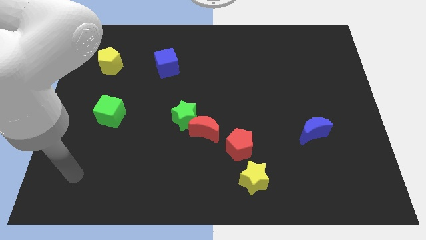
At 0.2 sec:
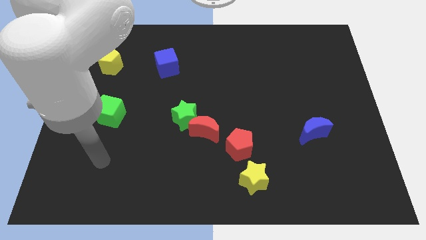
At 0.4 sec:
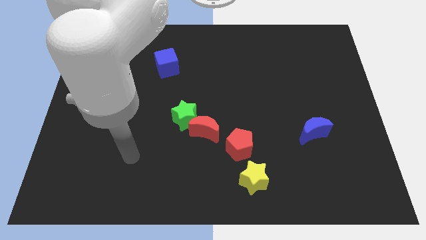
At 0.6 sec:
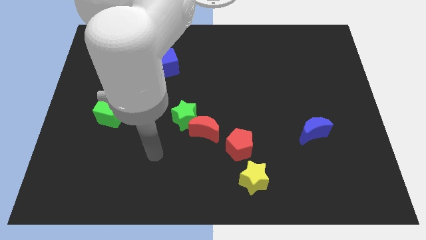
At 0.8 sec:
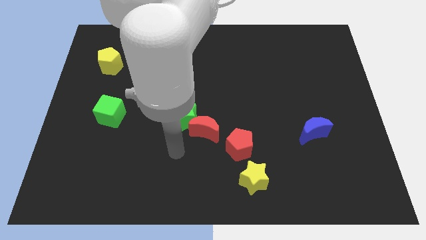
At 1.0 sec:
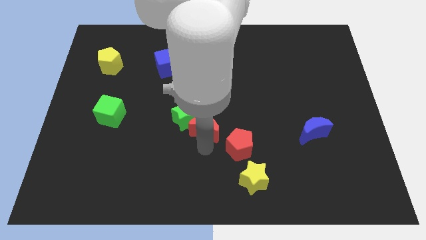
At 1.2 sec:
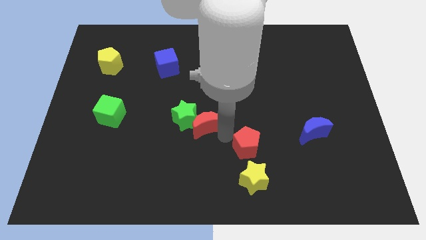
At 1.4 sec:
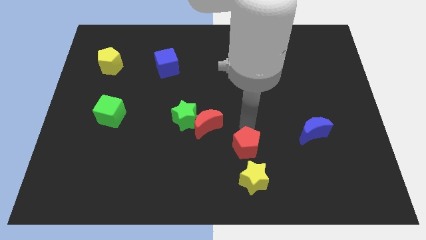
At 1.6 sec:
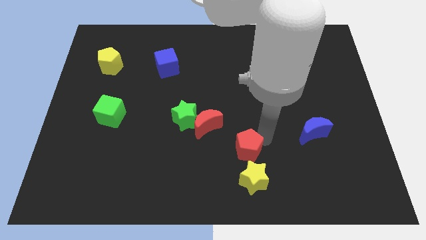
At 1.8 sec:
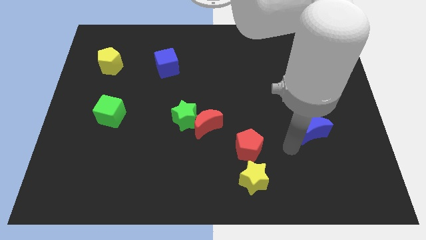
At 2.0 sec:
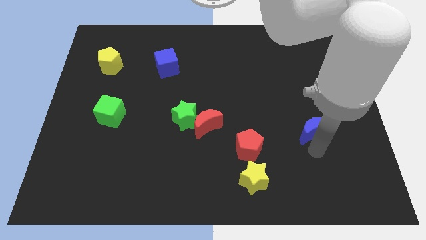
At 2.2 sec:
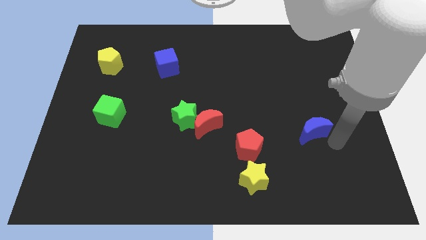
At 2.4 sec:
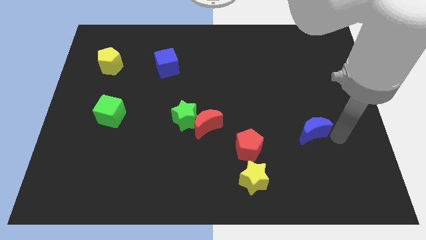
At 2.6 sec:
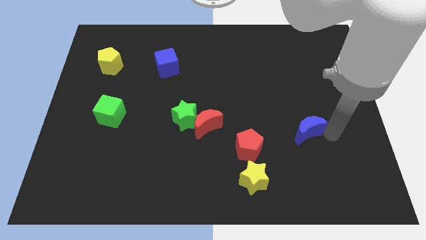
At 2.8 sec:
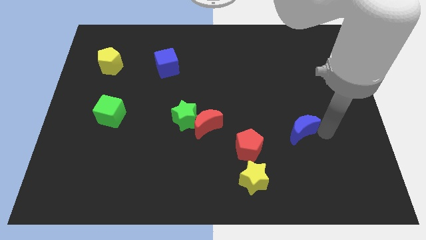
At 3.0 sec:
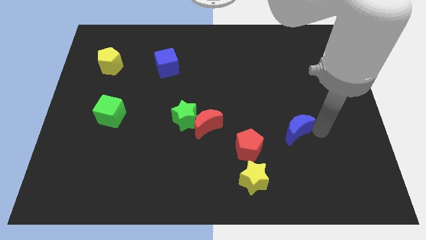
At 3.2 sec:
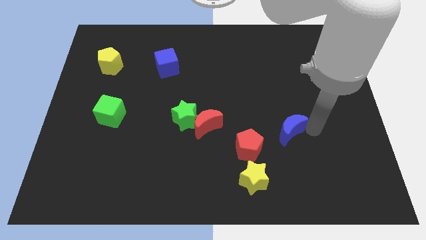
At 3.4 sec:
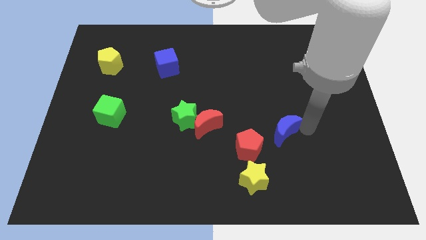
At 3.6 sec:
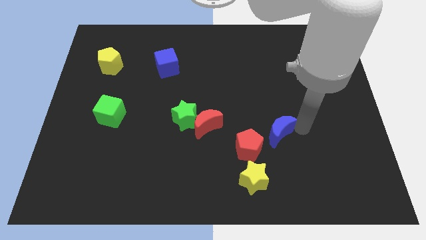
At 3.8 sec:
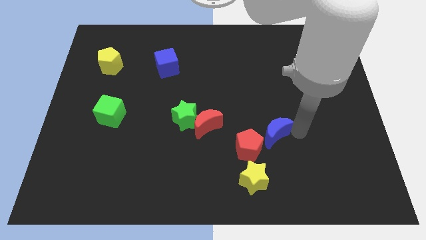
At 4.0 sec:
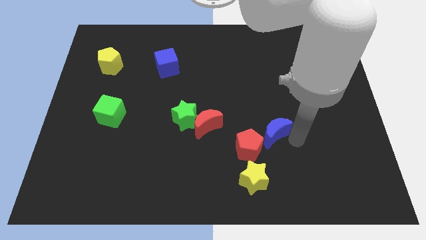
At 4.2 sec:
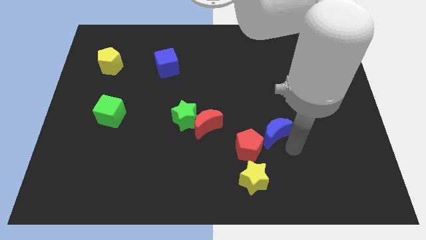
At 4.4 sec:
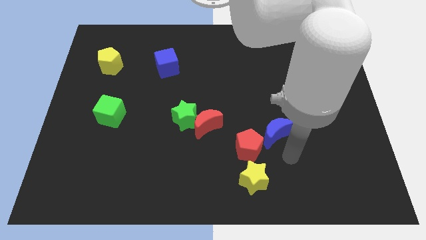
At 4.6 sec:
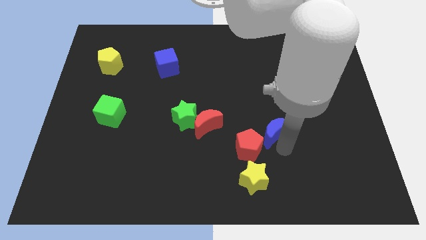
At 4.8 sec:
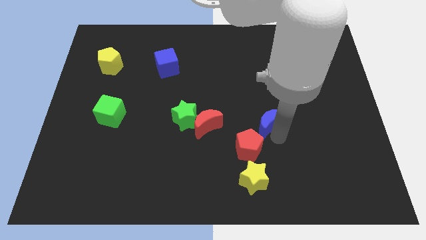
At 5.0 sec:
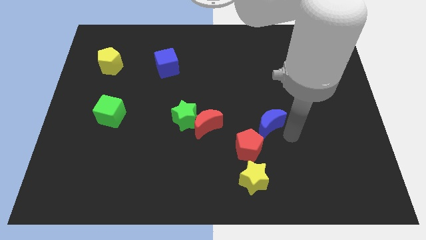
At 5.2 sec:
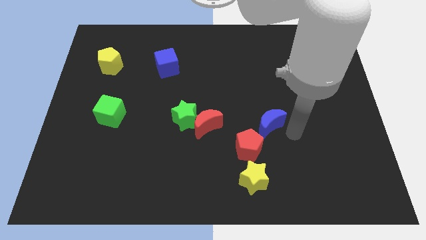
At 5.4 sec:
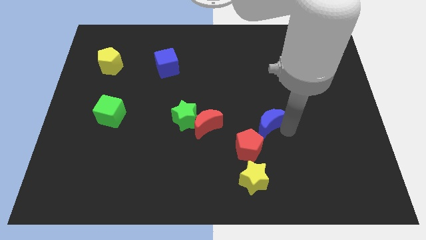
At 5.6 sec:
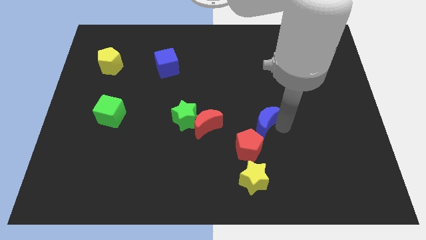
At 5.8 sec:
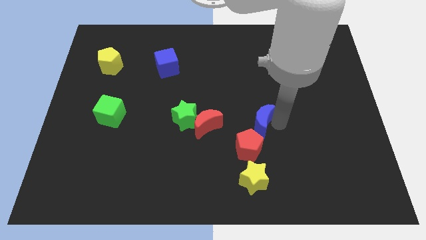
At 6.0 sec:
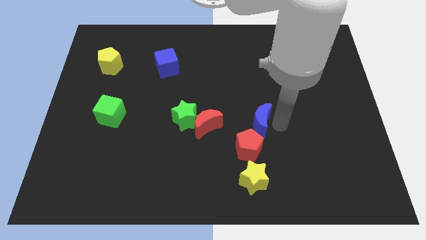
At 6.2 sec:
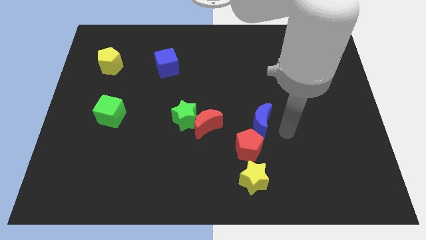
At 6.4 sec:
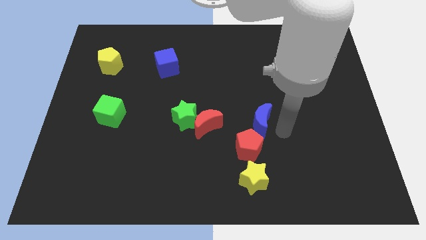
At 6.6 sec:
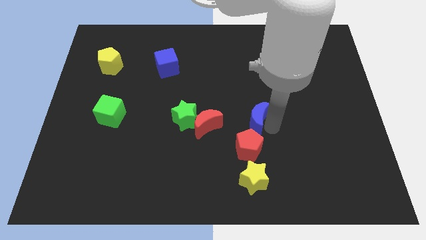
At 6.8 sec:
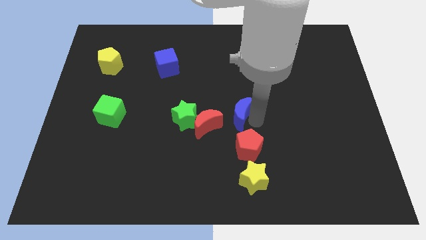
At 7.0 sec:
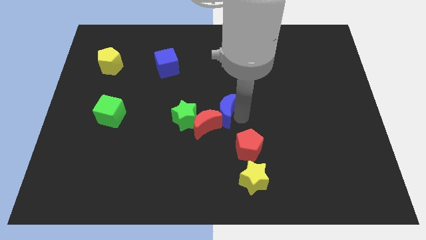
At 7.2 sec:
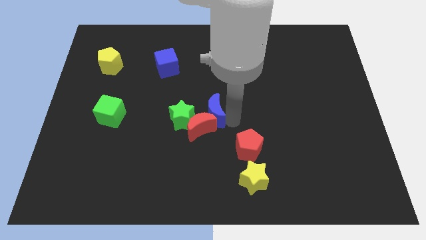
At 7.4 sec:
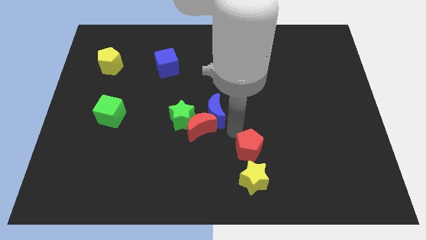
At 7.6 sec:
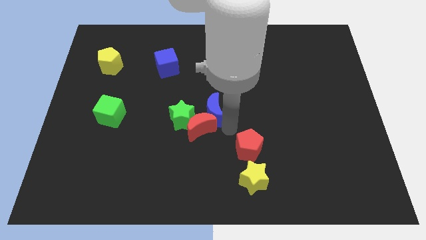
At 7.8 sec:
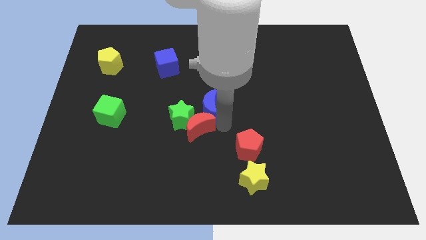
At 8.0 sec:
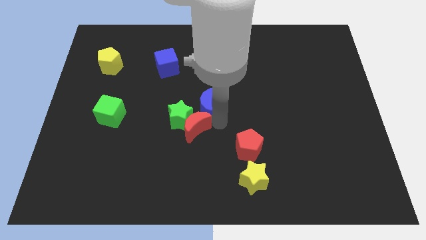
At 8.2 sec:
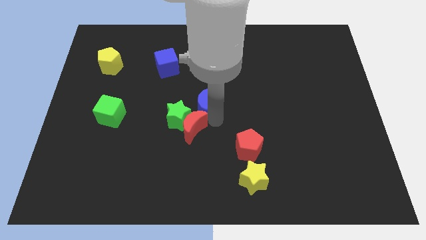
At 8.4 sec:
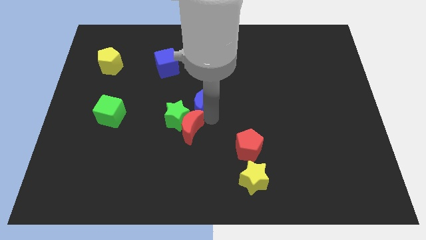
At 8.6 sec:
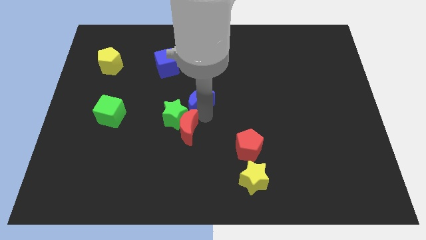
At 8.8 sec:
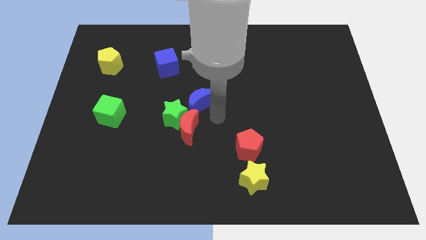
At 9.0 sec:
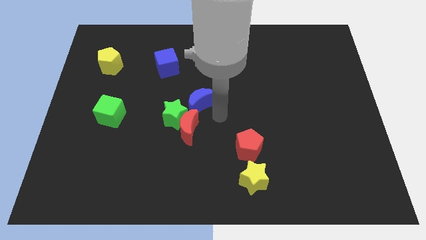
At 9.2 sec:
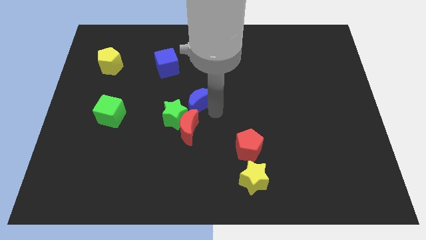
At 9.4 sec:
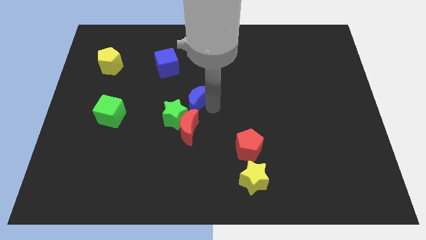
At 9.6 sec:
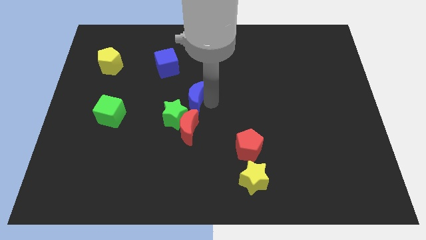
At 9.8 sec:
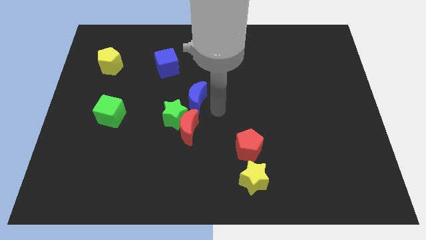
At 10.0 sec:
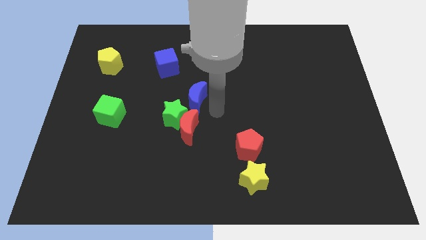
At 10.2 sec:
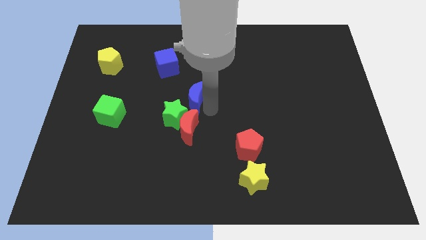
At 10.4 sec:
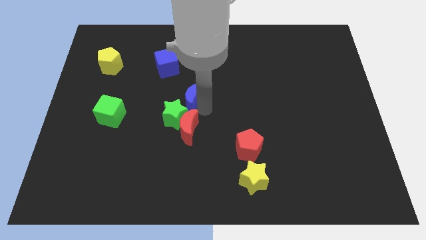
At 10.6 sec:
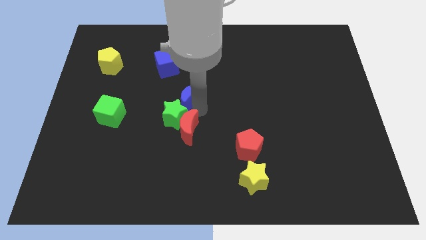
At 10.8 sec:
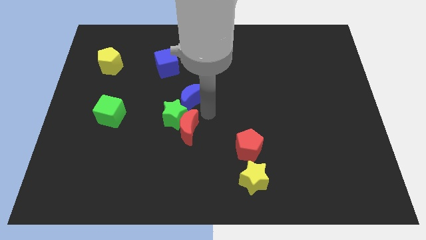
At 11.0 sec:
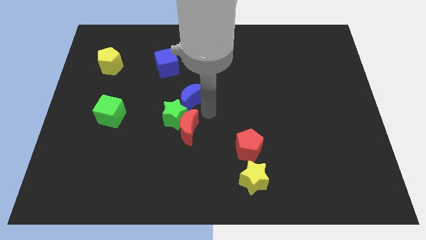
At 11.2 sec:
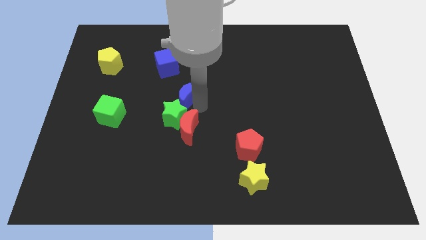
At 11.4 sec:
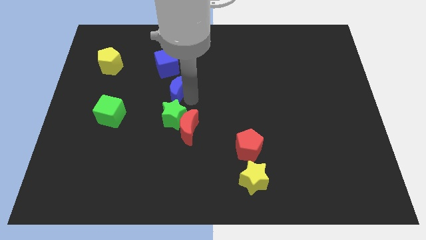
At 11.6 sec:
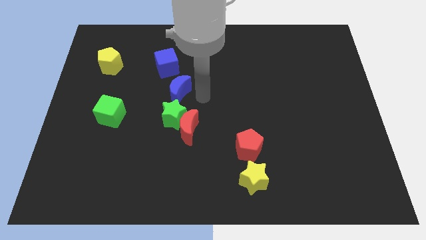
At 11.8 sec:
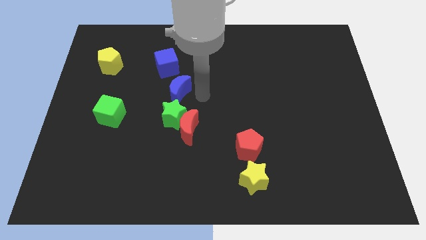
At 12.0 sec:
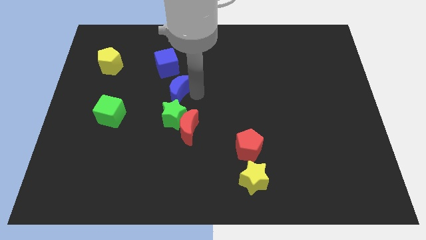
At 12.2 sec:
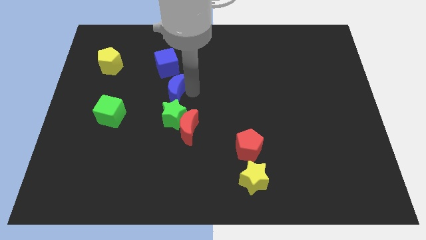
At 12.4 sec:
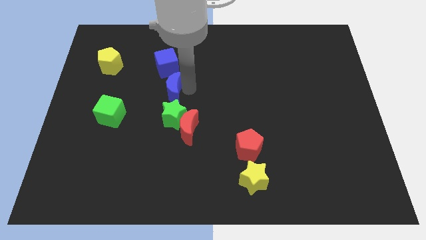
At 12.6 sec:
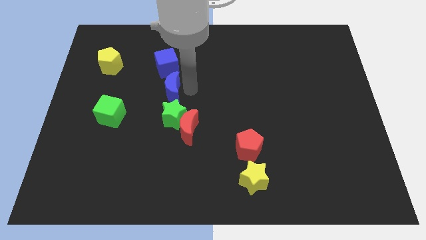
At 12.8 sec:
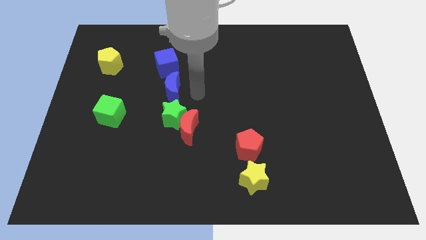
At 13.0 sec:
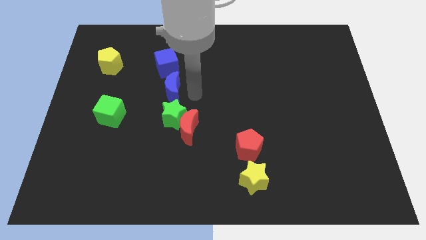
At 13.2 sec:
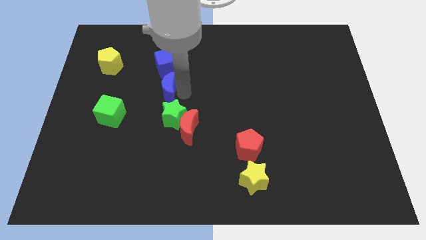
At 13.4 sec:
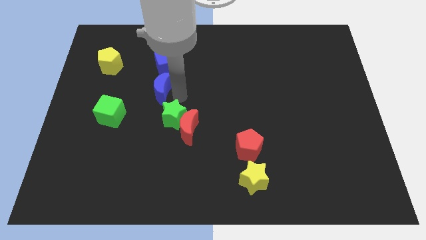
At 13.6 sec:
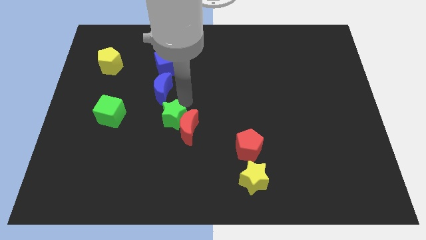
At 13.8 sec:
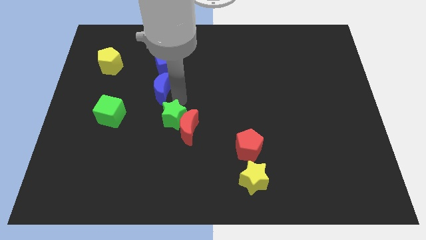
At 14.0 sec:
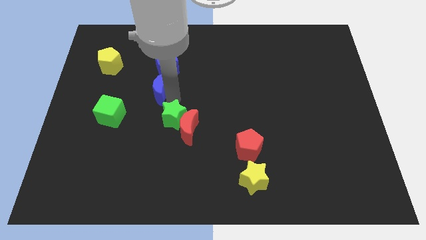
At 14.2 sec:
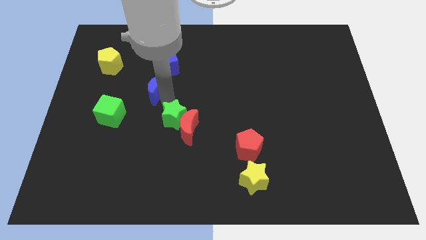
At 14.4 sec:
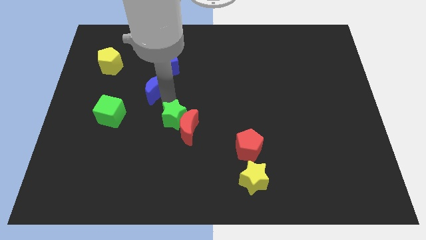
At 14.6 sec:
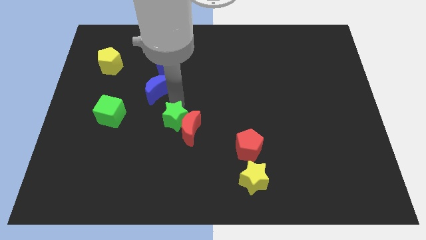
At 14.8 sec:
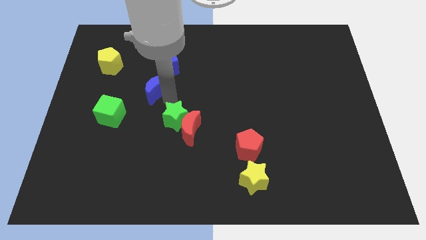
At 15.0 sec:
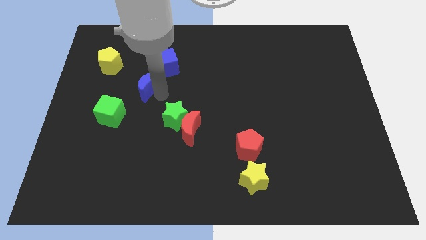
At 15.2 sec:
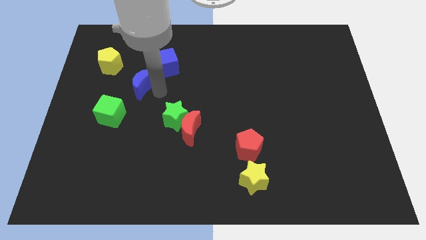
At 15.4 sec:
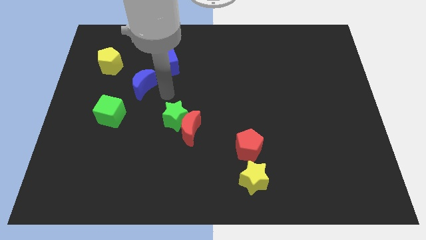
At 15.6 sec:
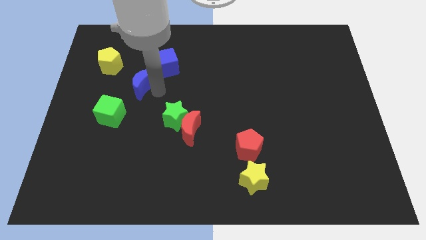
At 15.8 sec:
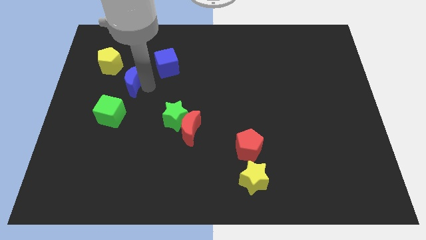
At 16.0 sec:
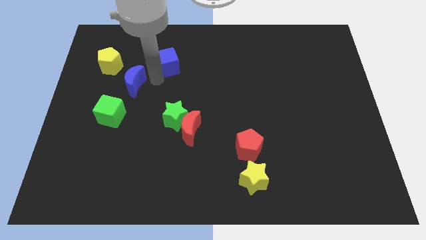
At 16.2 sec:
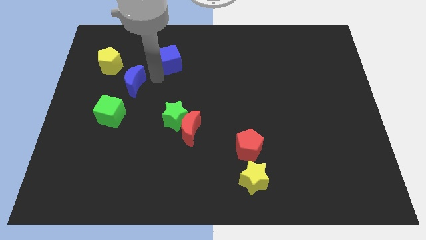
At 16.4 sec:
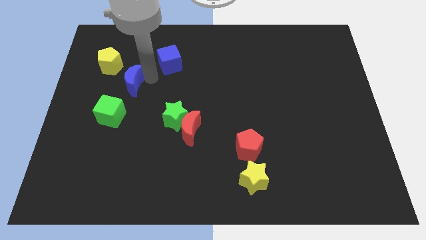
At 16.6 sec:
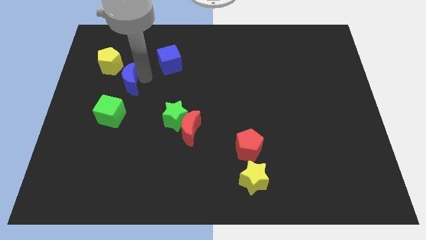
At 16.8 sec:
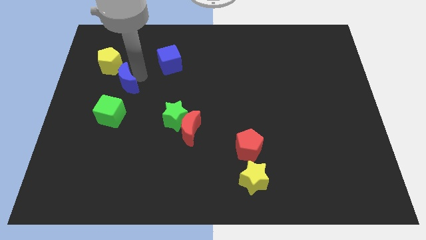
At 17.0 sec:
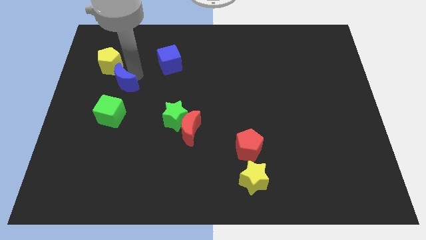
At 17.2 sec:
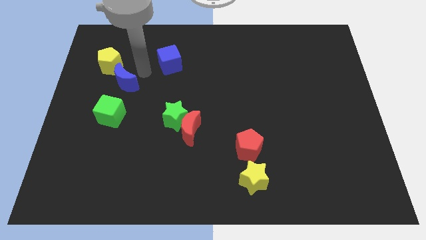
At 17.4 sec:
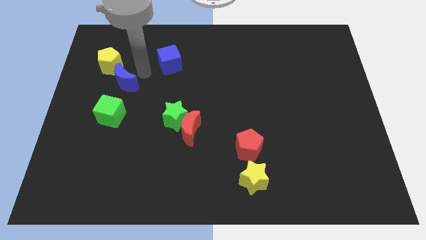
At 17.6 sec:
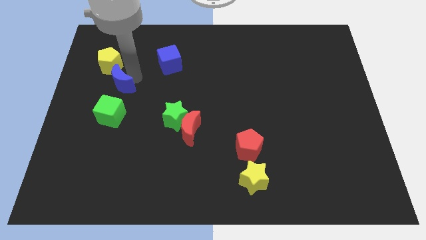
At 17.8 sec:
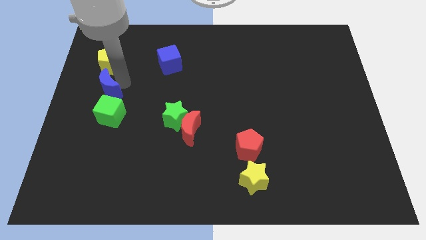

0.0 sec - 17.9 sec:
put the blue moon to the center left
